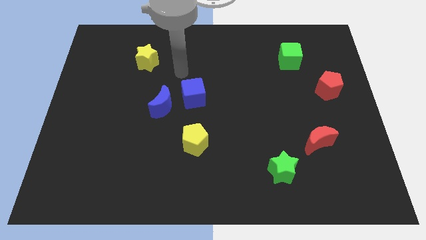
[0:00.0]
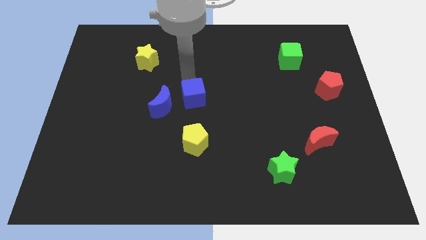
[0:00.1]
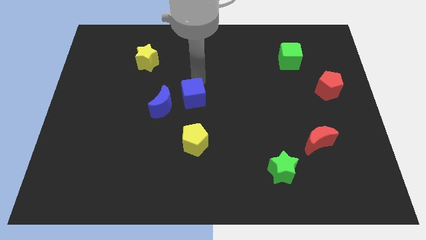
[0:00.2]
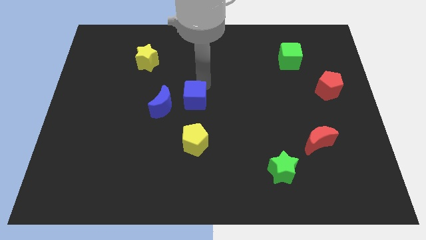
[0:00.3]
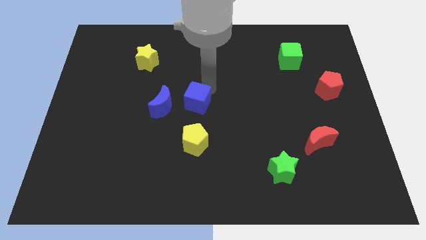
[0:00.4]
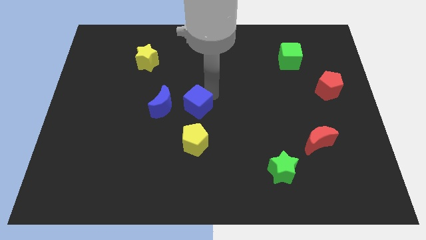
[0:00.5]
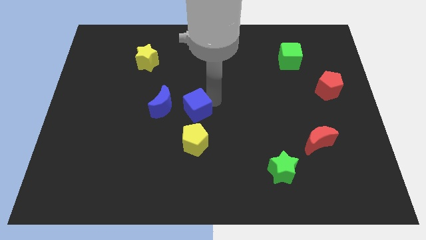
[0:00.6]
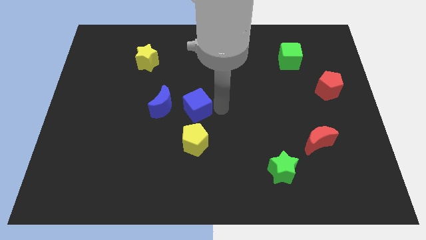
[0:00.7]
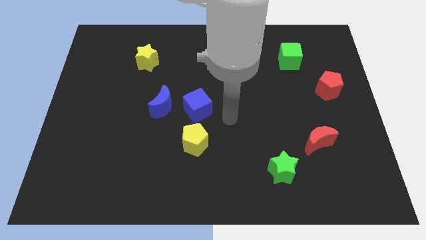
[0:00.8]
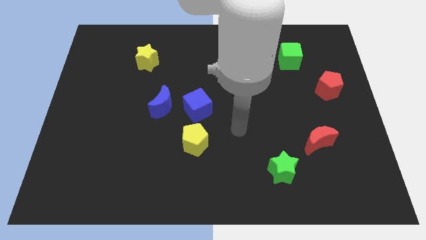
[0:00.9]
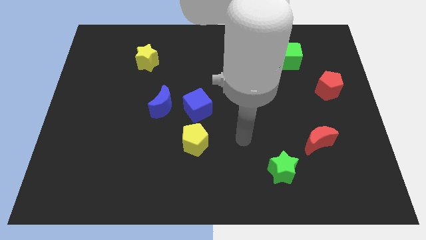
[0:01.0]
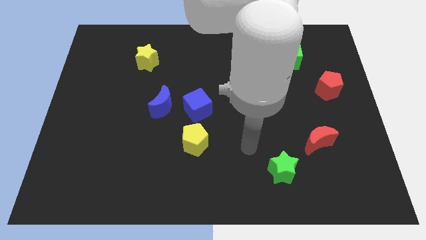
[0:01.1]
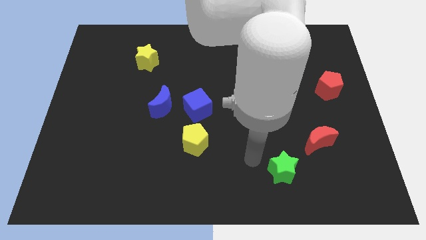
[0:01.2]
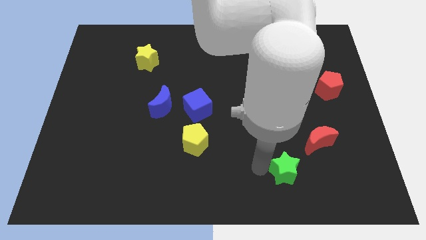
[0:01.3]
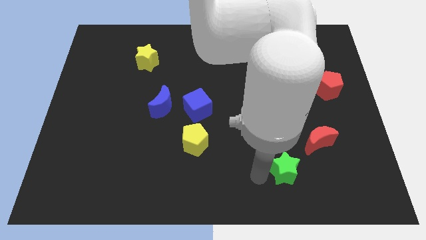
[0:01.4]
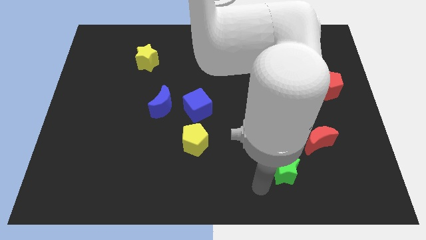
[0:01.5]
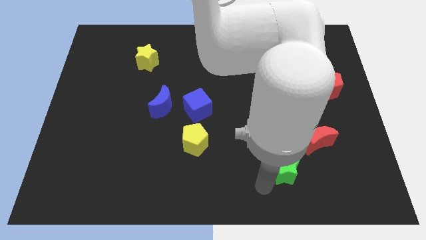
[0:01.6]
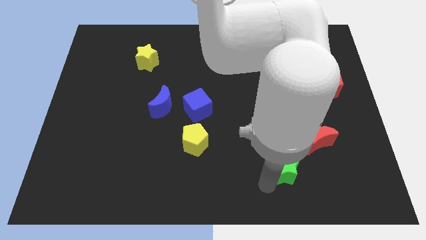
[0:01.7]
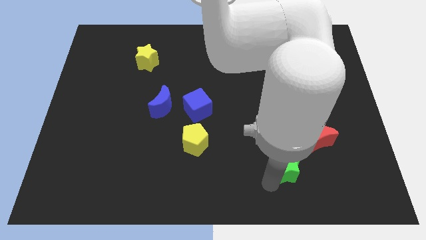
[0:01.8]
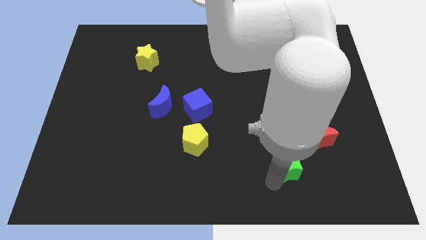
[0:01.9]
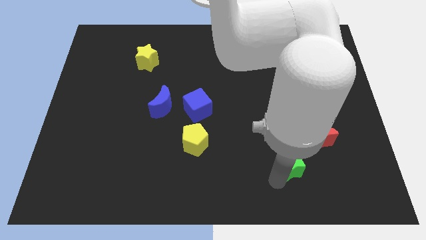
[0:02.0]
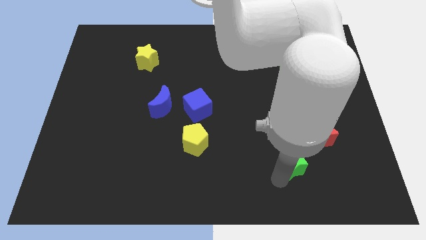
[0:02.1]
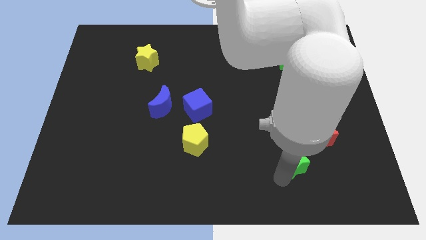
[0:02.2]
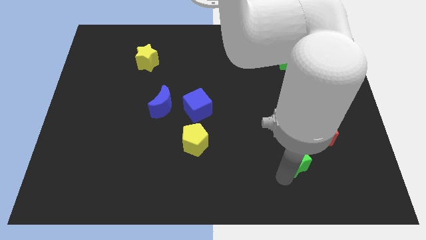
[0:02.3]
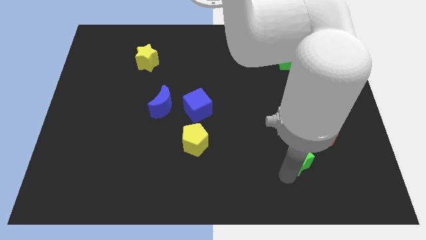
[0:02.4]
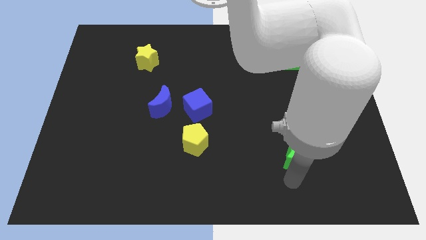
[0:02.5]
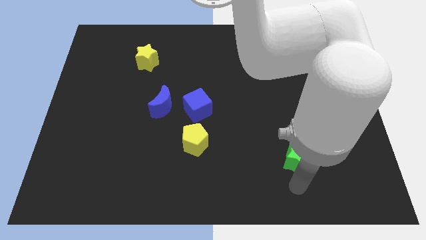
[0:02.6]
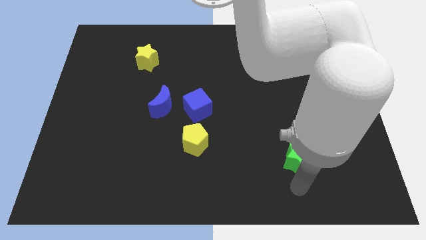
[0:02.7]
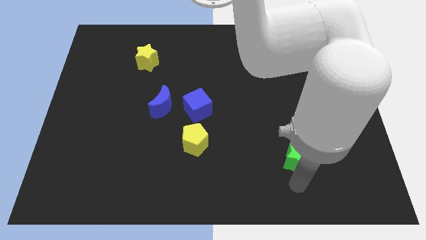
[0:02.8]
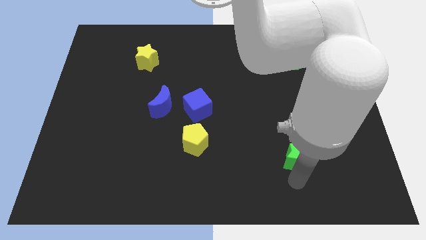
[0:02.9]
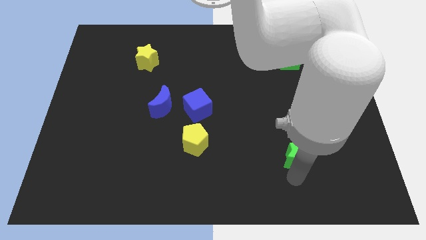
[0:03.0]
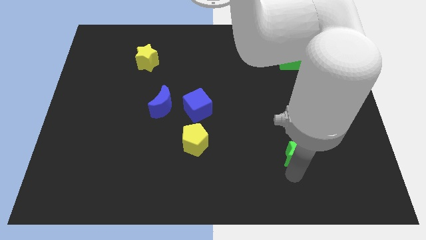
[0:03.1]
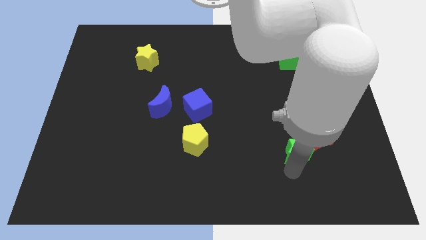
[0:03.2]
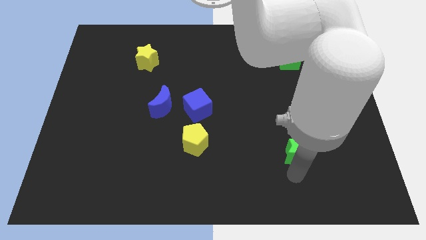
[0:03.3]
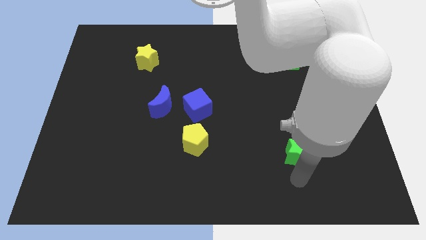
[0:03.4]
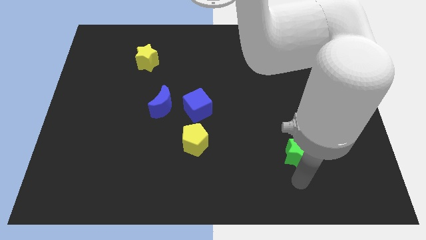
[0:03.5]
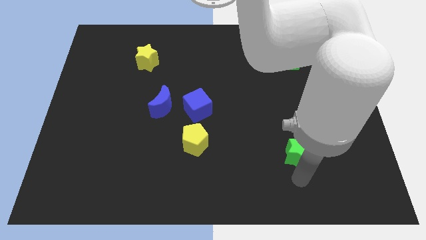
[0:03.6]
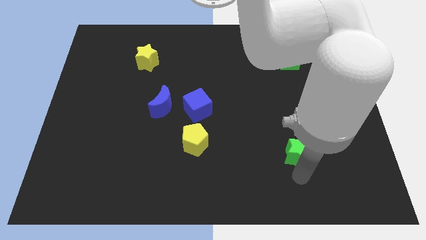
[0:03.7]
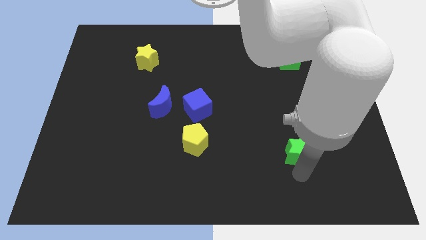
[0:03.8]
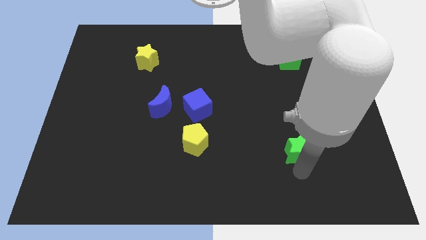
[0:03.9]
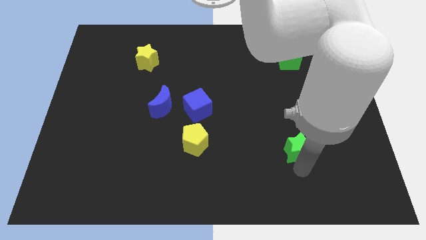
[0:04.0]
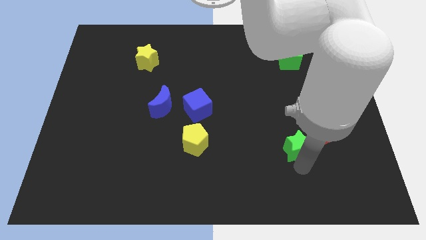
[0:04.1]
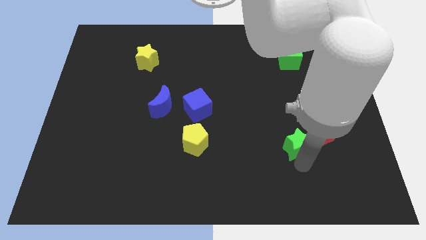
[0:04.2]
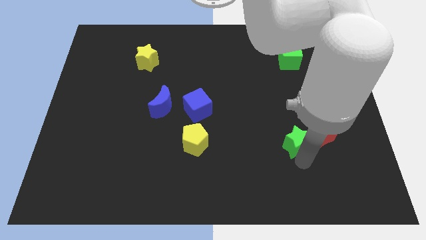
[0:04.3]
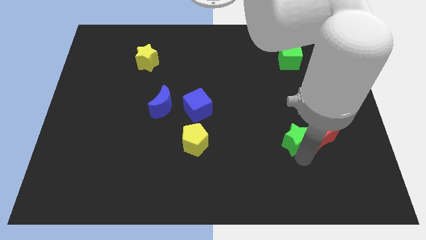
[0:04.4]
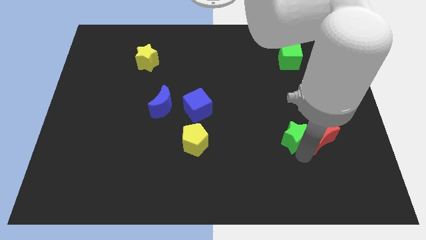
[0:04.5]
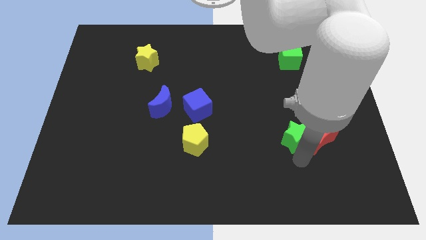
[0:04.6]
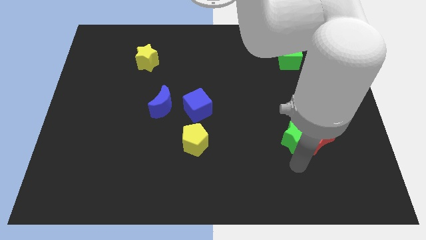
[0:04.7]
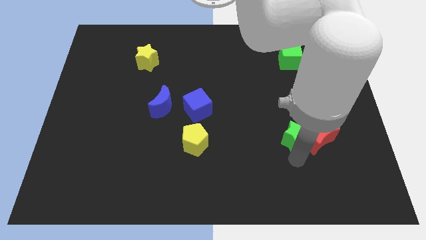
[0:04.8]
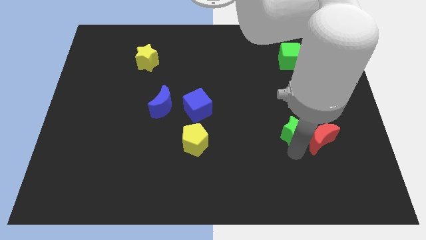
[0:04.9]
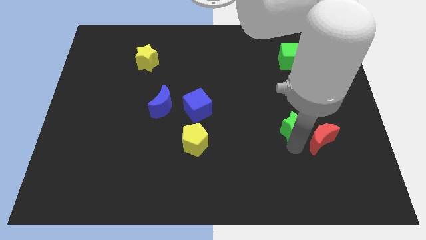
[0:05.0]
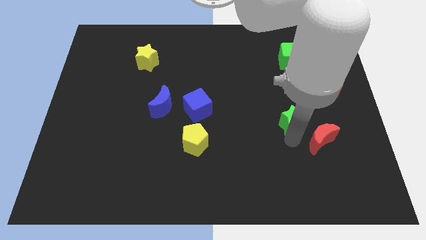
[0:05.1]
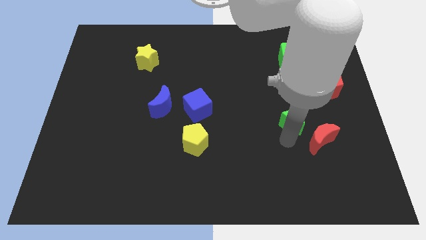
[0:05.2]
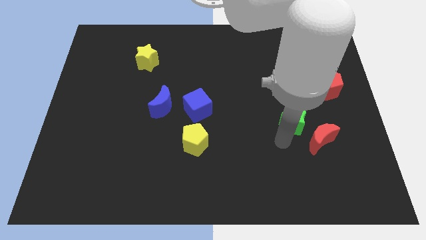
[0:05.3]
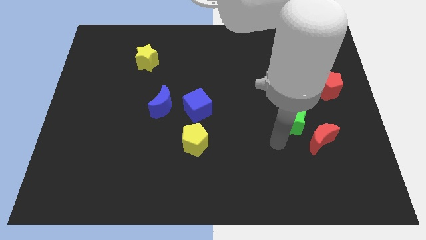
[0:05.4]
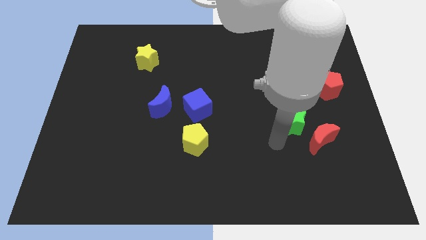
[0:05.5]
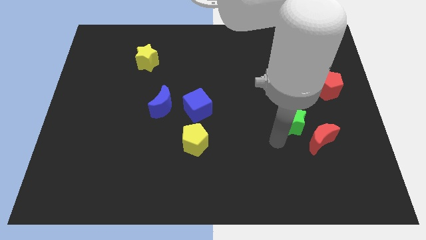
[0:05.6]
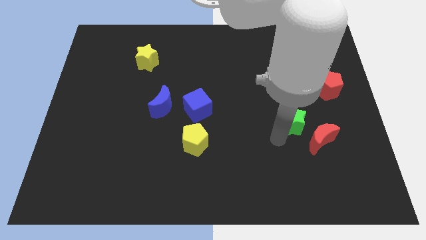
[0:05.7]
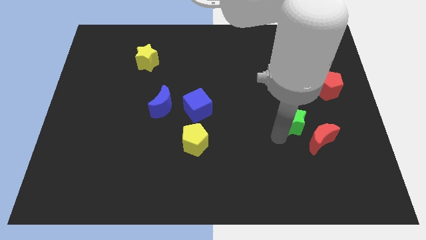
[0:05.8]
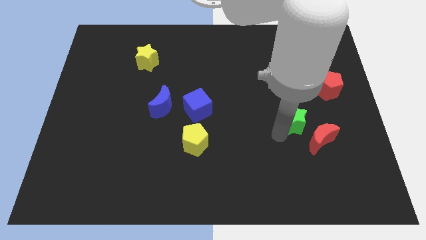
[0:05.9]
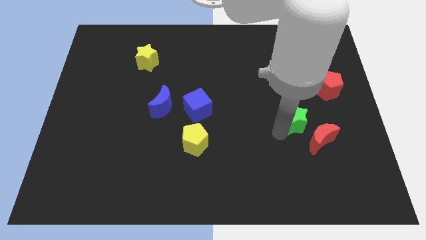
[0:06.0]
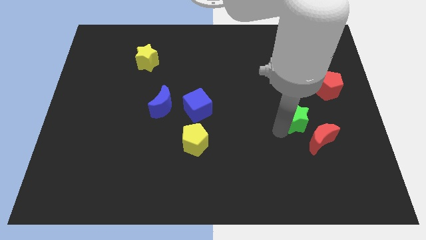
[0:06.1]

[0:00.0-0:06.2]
slide the green star above the red moon

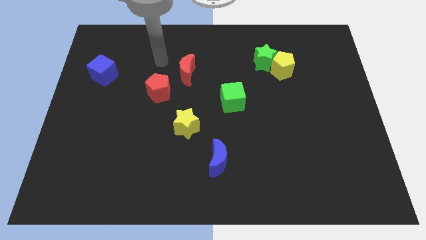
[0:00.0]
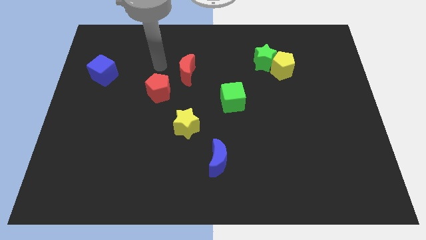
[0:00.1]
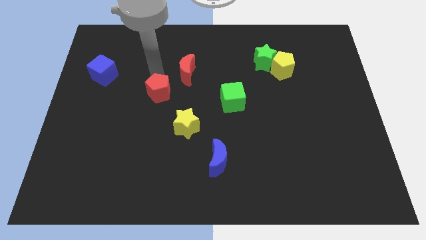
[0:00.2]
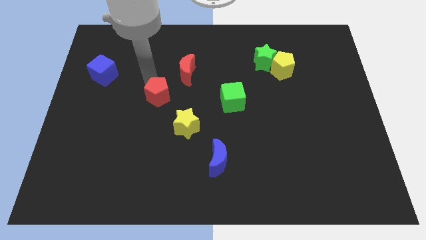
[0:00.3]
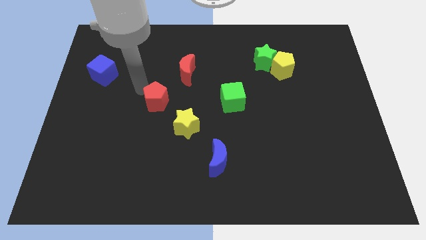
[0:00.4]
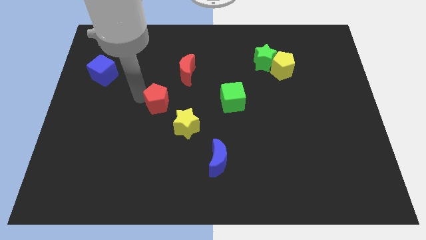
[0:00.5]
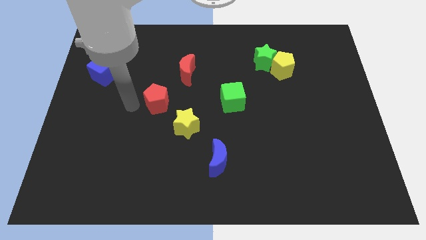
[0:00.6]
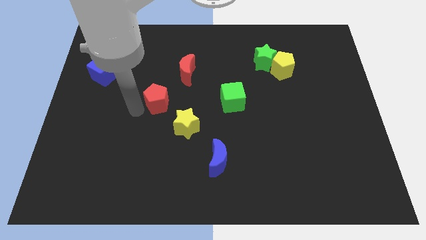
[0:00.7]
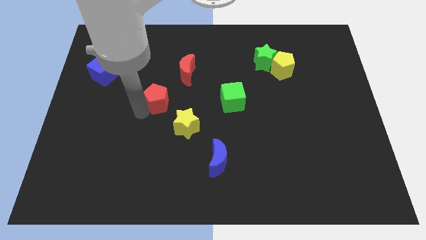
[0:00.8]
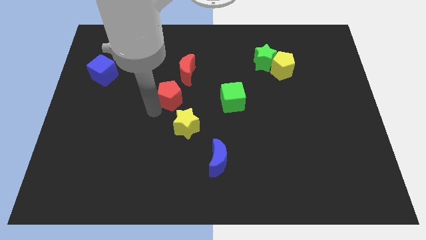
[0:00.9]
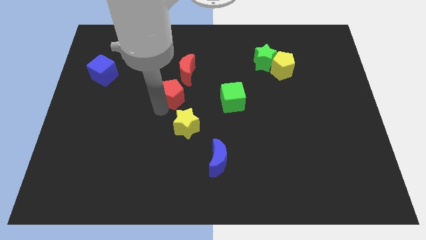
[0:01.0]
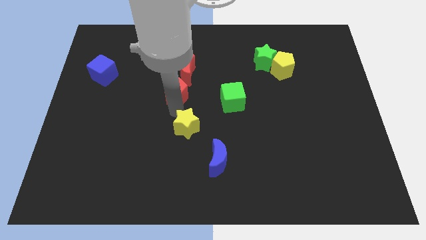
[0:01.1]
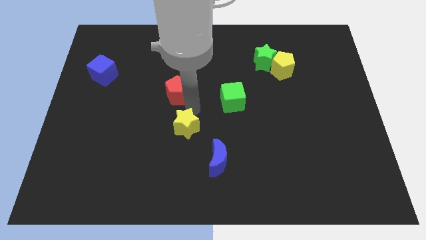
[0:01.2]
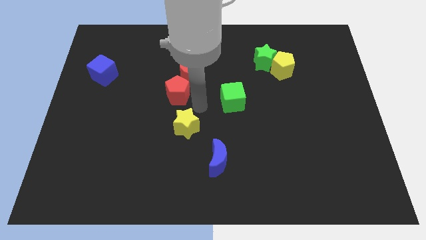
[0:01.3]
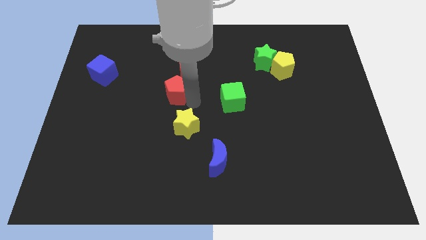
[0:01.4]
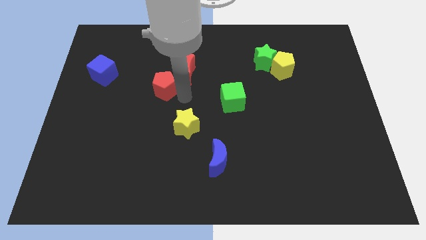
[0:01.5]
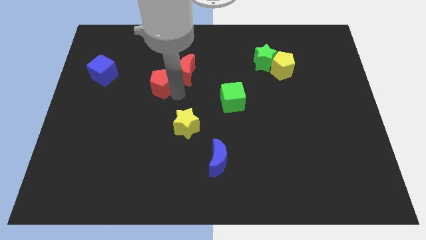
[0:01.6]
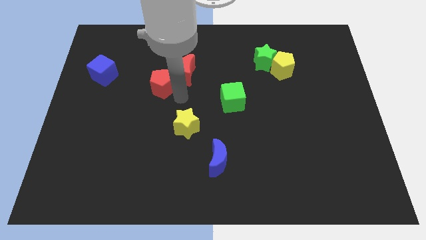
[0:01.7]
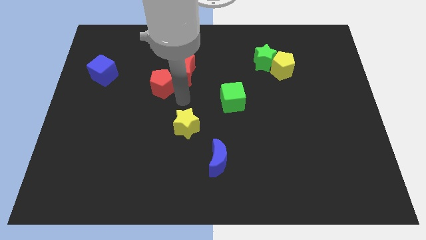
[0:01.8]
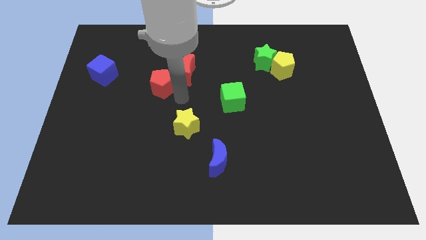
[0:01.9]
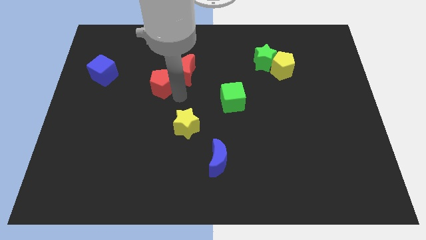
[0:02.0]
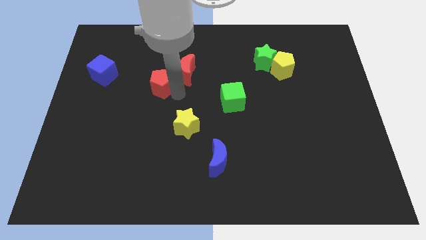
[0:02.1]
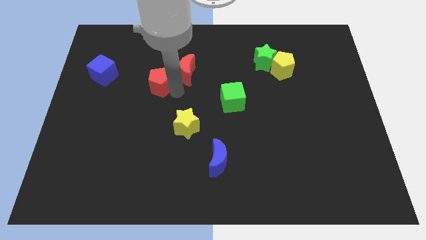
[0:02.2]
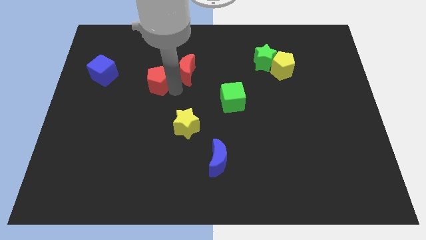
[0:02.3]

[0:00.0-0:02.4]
push the red pentagon just right of the blue cube
